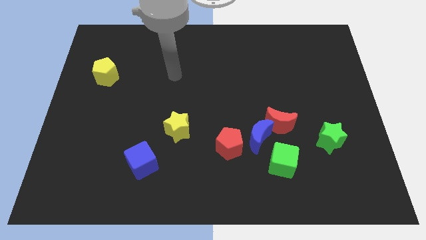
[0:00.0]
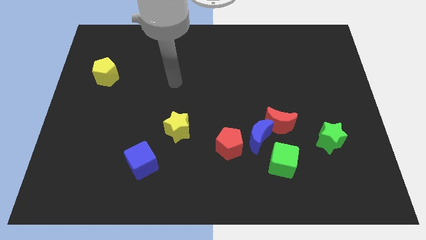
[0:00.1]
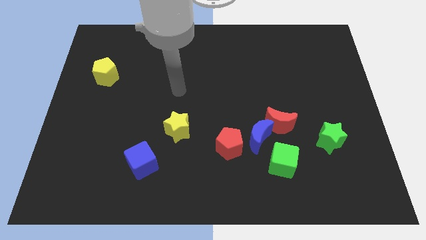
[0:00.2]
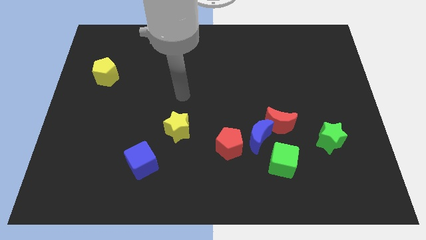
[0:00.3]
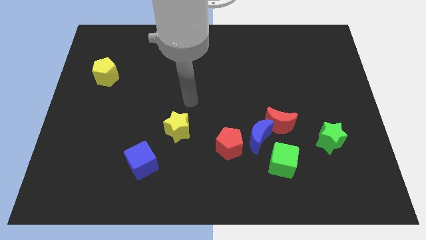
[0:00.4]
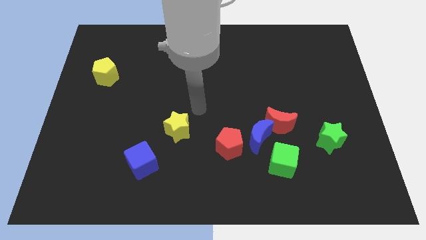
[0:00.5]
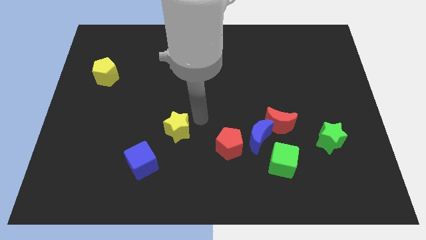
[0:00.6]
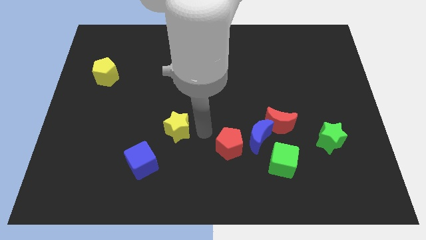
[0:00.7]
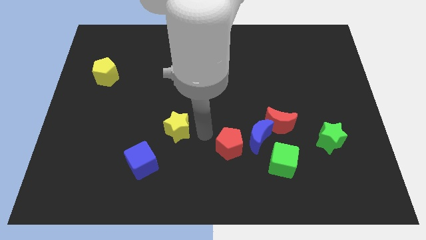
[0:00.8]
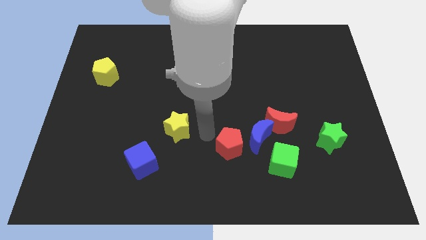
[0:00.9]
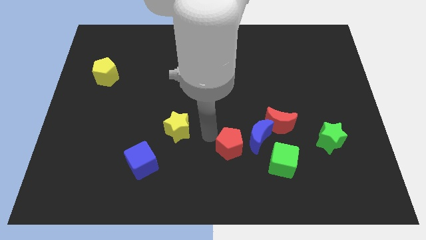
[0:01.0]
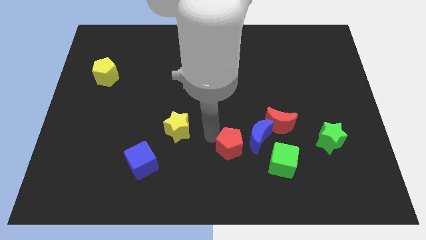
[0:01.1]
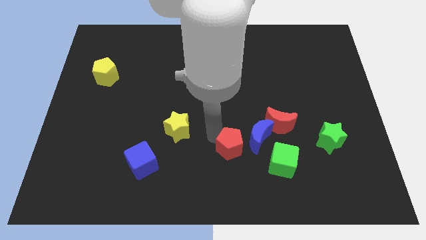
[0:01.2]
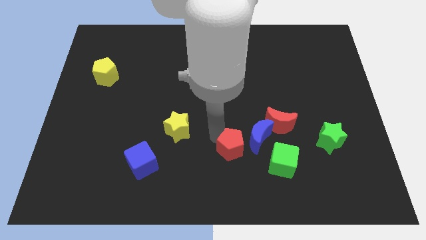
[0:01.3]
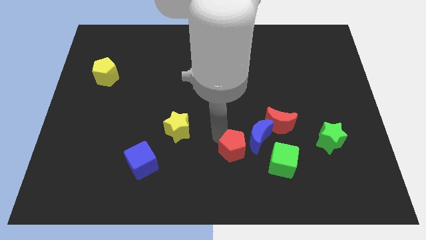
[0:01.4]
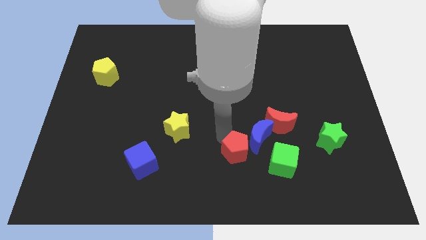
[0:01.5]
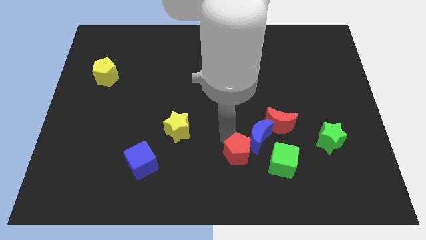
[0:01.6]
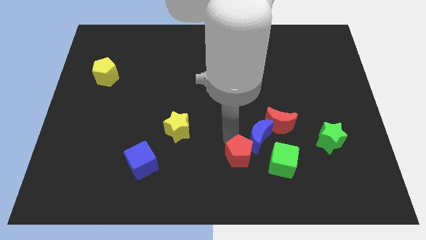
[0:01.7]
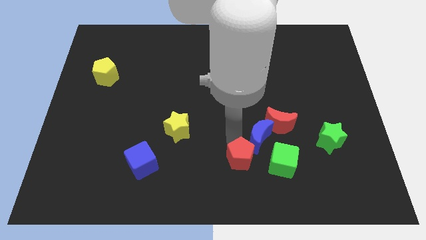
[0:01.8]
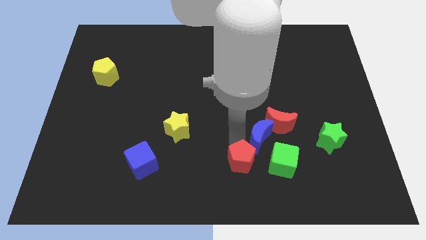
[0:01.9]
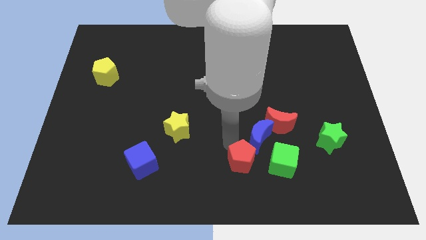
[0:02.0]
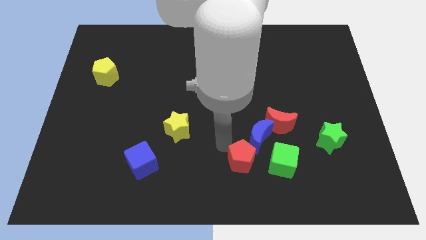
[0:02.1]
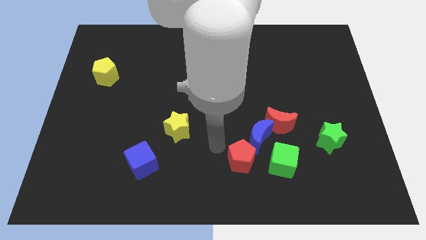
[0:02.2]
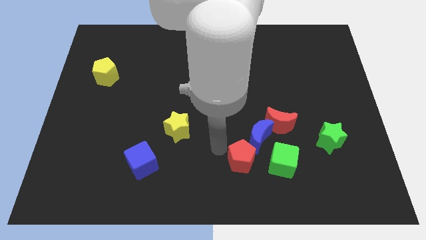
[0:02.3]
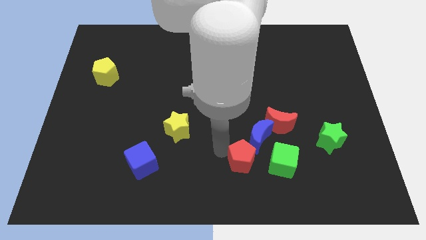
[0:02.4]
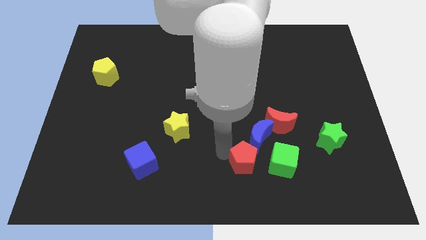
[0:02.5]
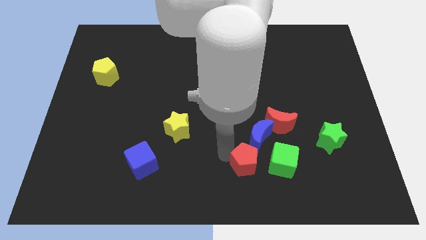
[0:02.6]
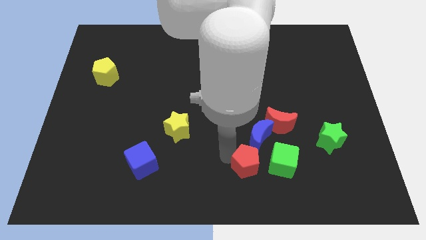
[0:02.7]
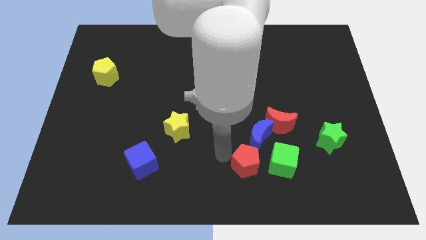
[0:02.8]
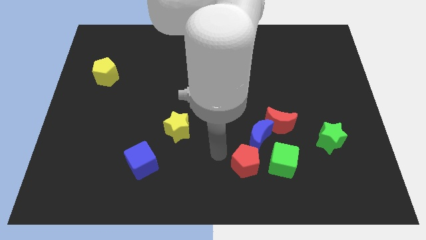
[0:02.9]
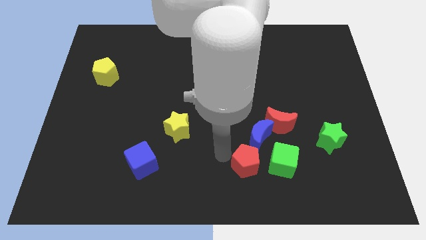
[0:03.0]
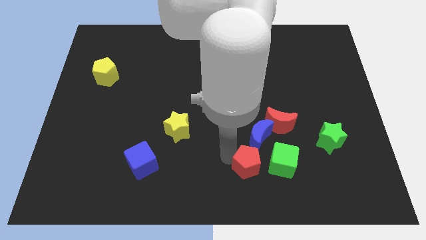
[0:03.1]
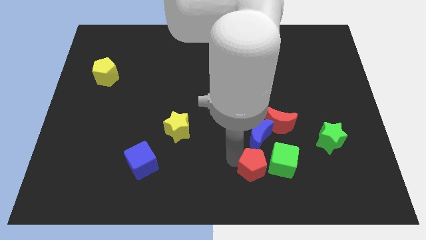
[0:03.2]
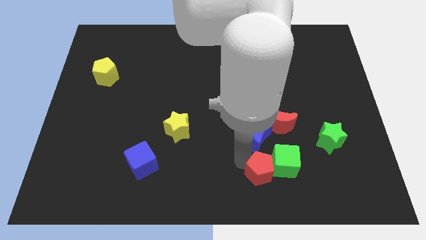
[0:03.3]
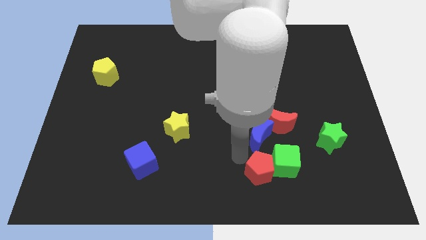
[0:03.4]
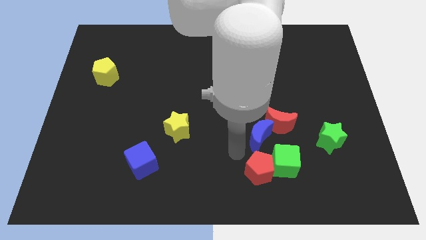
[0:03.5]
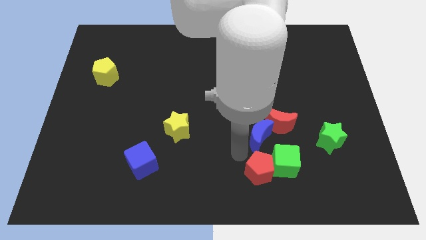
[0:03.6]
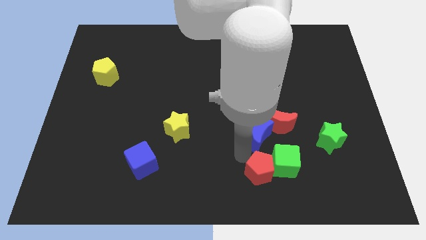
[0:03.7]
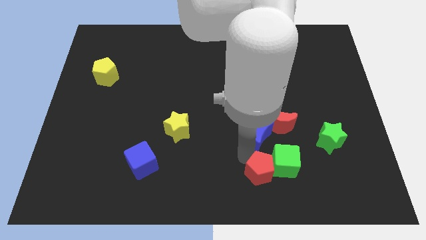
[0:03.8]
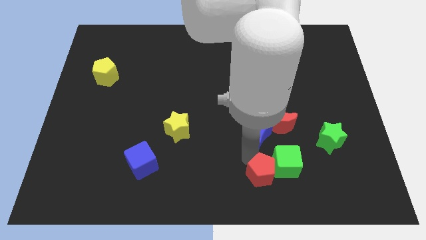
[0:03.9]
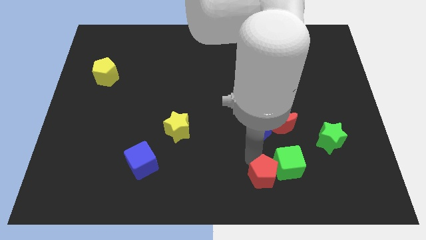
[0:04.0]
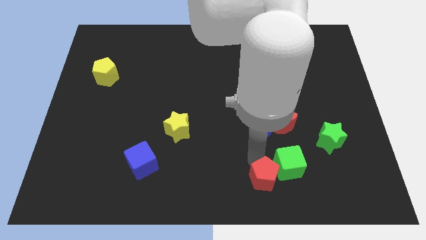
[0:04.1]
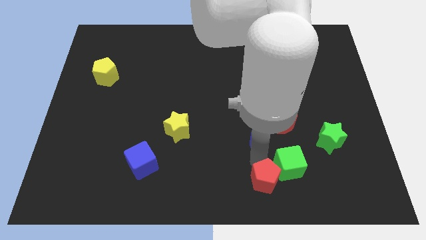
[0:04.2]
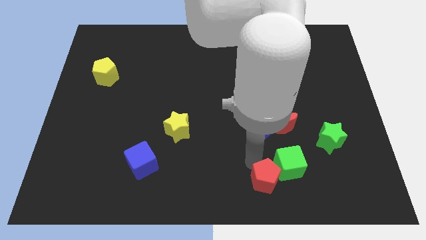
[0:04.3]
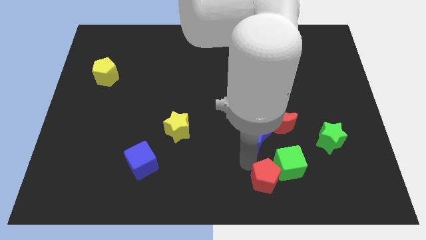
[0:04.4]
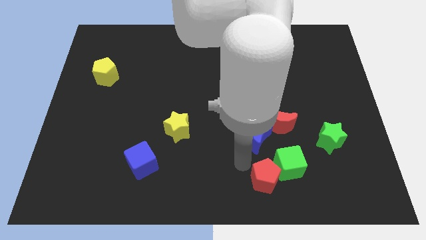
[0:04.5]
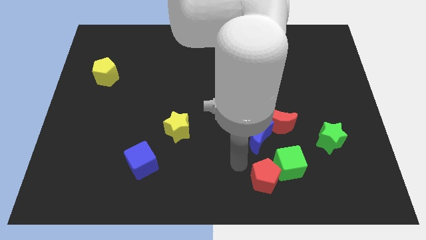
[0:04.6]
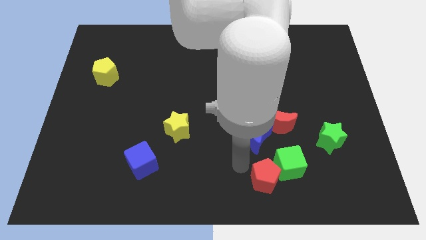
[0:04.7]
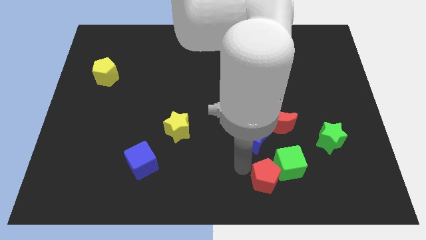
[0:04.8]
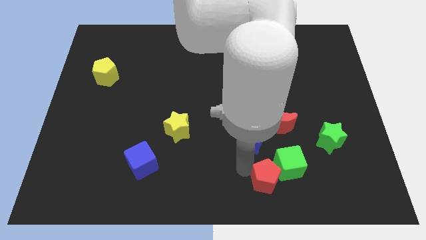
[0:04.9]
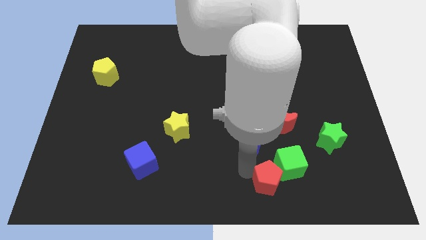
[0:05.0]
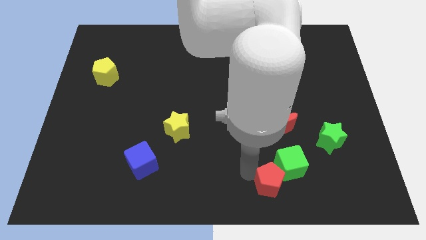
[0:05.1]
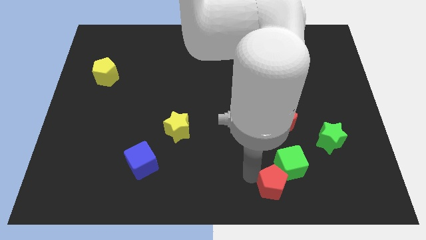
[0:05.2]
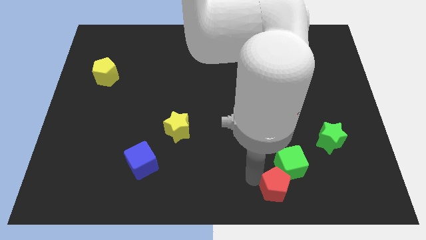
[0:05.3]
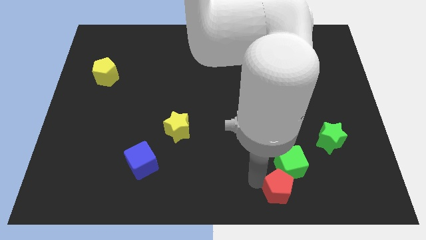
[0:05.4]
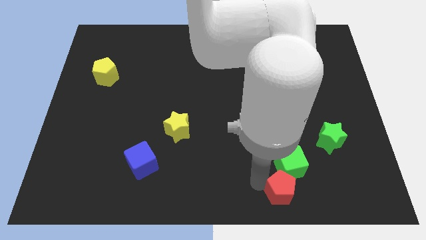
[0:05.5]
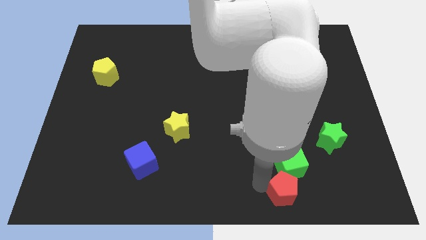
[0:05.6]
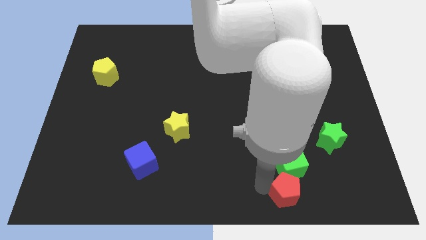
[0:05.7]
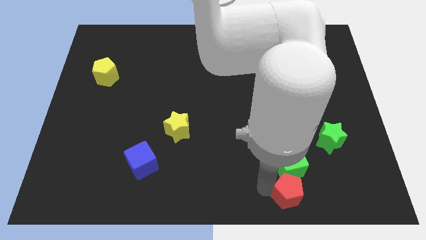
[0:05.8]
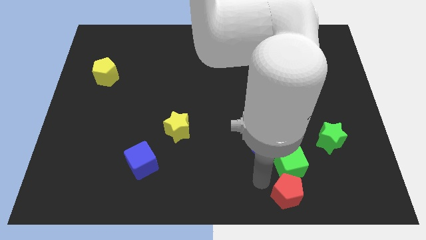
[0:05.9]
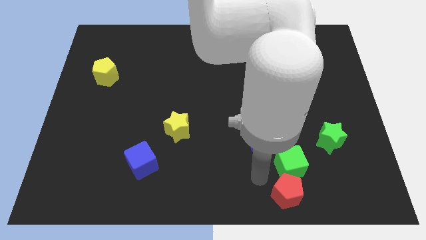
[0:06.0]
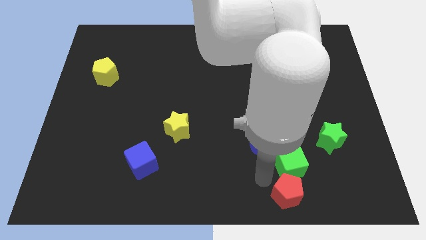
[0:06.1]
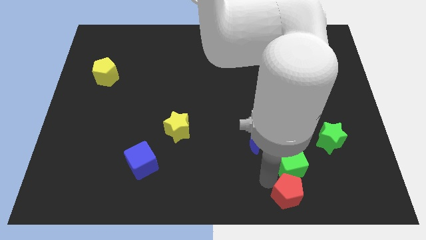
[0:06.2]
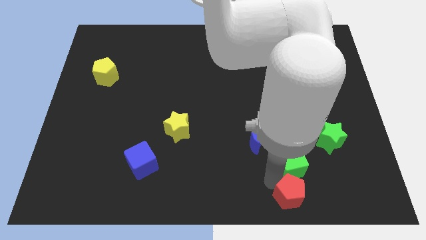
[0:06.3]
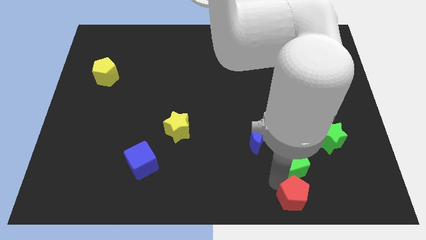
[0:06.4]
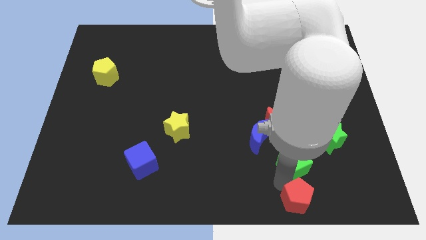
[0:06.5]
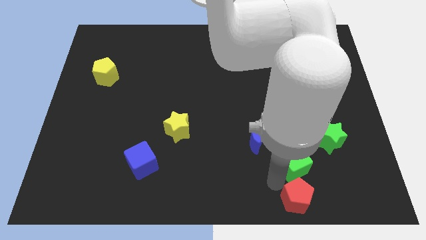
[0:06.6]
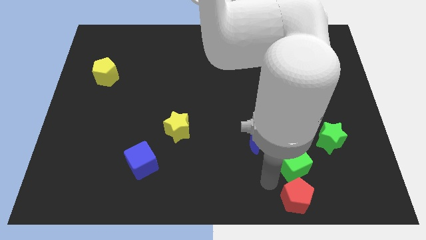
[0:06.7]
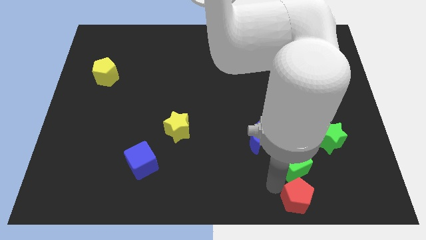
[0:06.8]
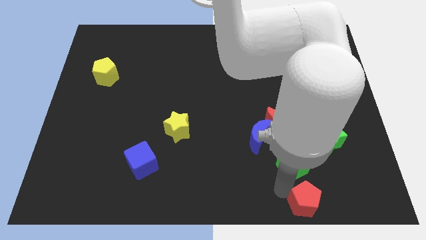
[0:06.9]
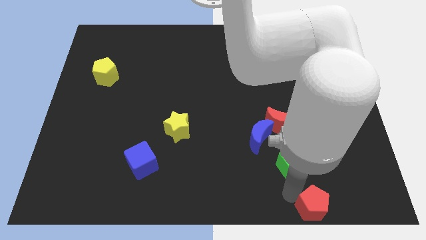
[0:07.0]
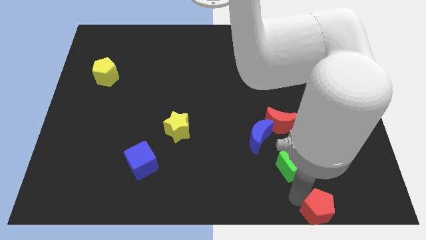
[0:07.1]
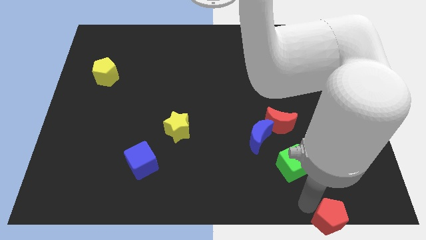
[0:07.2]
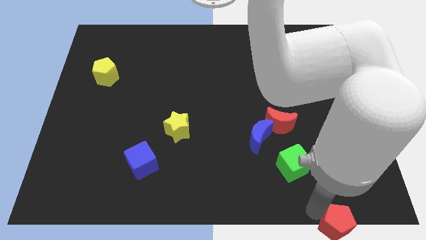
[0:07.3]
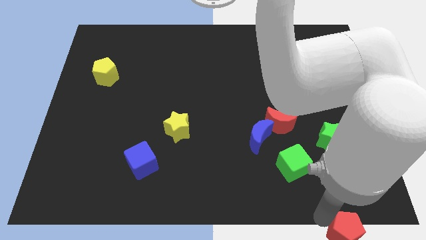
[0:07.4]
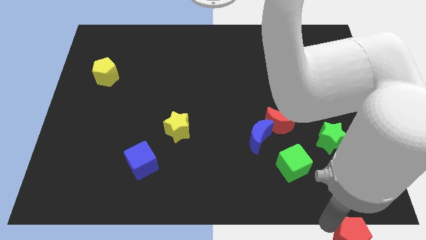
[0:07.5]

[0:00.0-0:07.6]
put the red pentagon to the bottom right corner
